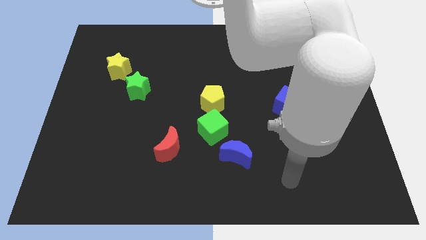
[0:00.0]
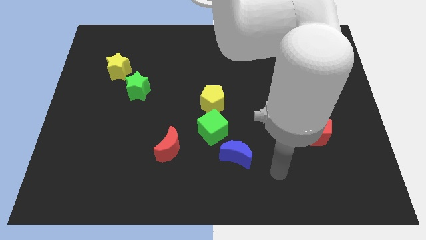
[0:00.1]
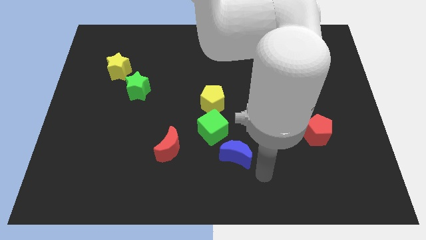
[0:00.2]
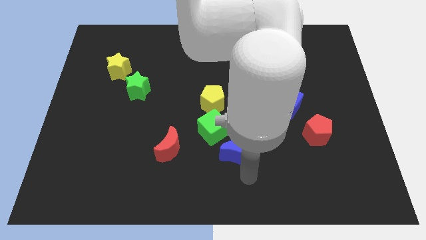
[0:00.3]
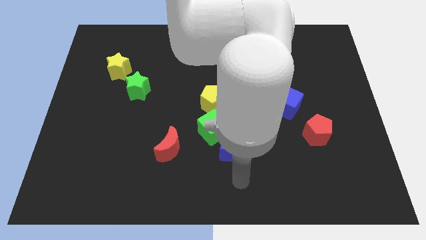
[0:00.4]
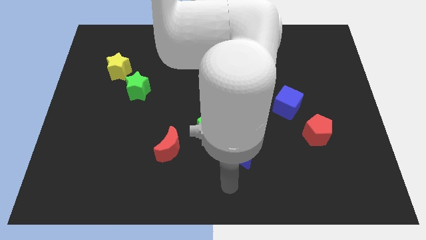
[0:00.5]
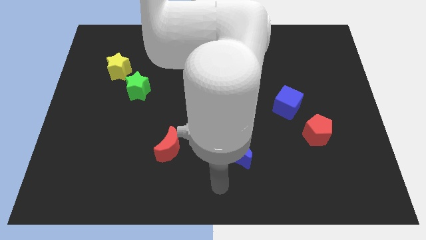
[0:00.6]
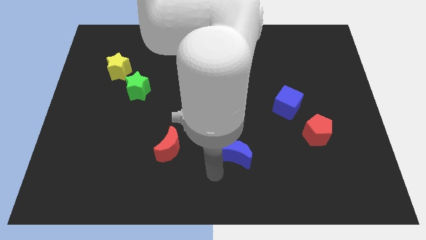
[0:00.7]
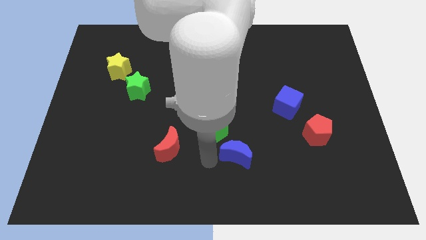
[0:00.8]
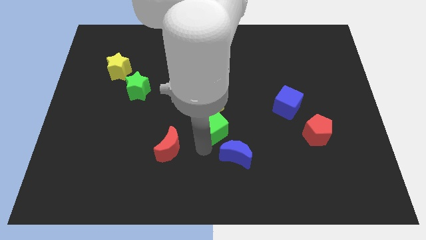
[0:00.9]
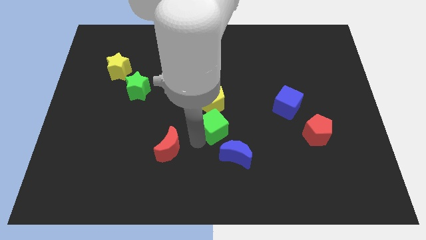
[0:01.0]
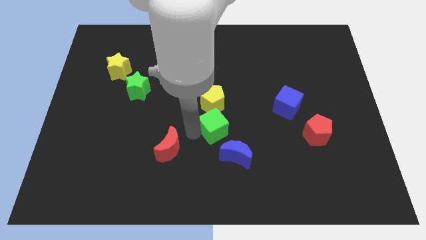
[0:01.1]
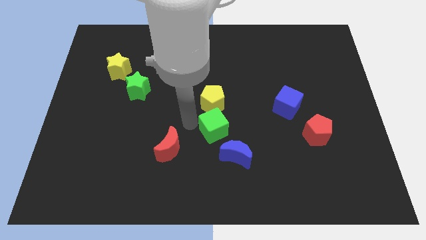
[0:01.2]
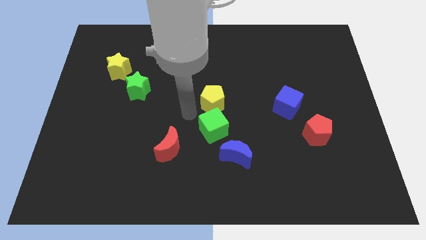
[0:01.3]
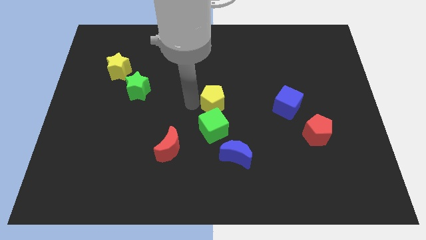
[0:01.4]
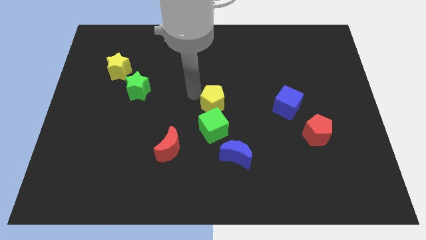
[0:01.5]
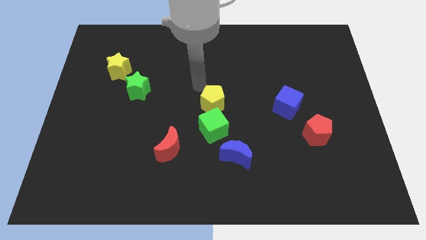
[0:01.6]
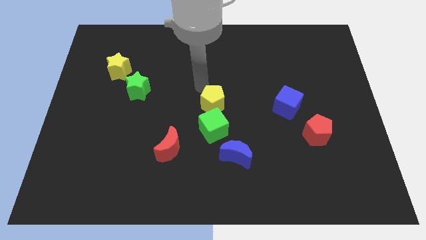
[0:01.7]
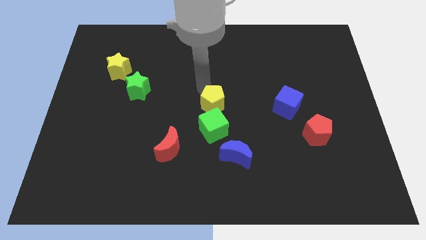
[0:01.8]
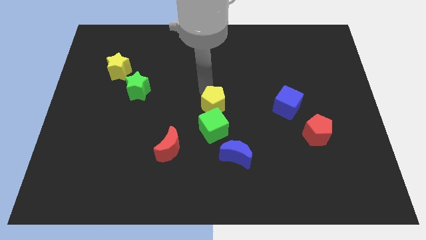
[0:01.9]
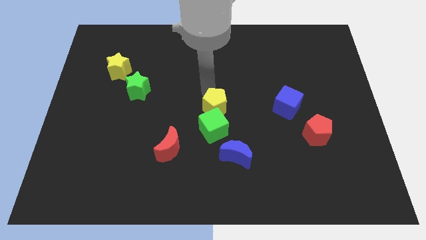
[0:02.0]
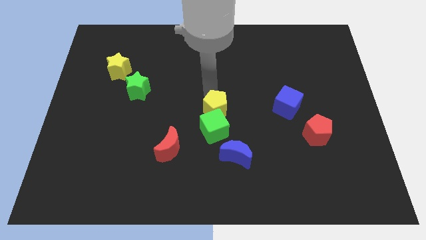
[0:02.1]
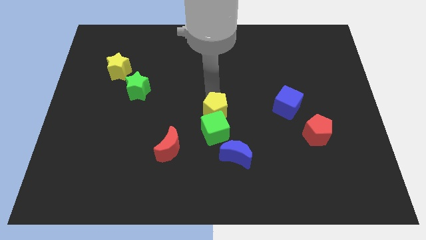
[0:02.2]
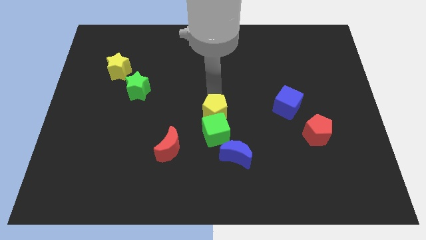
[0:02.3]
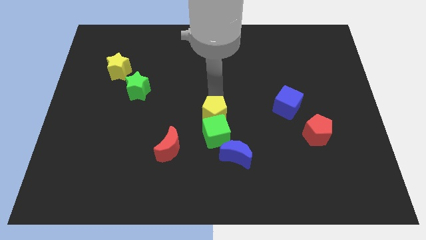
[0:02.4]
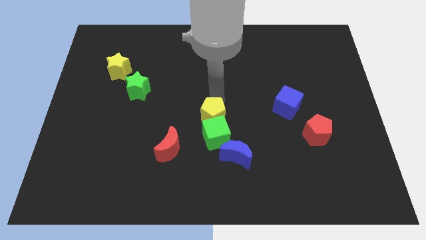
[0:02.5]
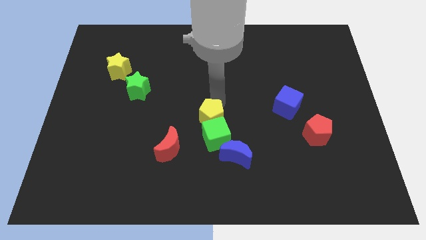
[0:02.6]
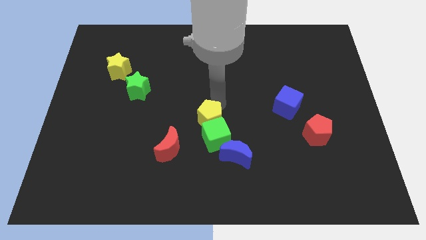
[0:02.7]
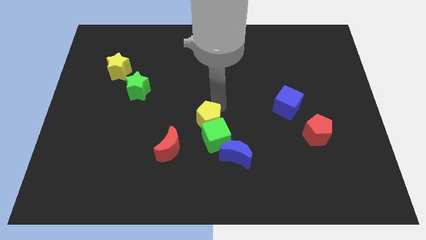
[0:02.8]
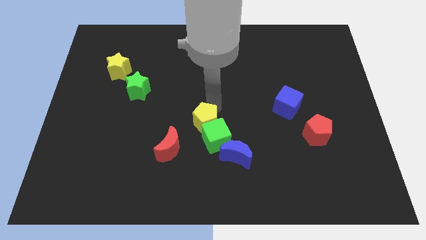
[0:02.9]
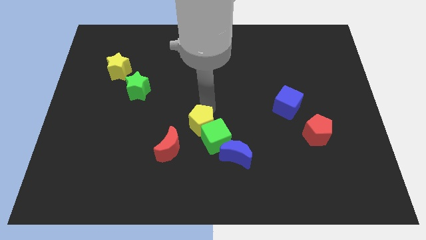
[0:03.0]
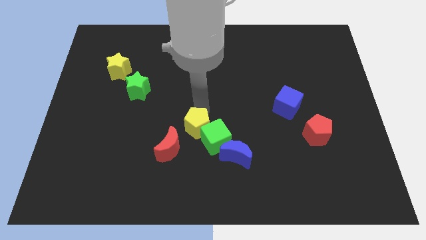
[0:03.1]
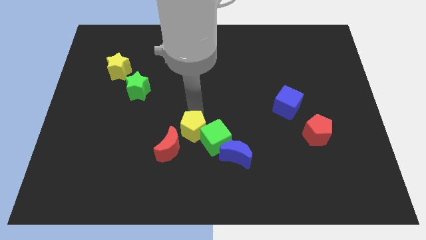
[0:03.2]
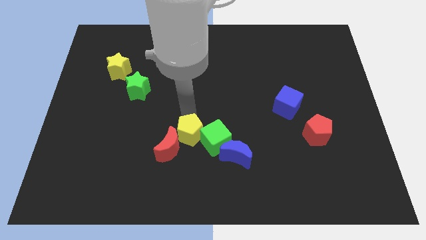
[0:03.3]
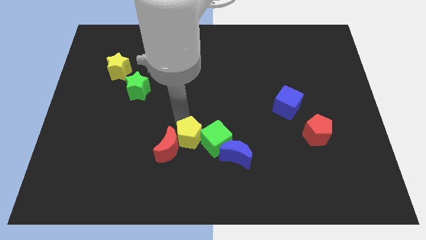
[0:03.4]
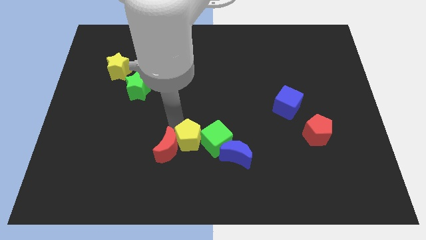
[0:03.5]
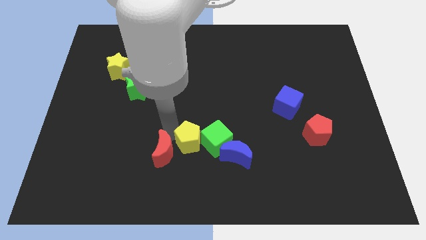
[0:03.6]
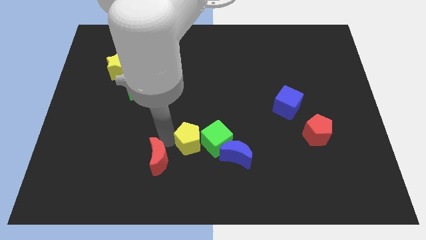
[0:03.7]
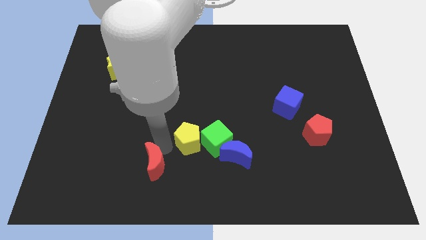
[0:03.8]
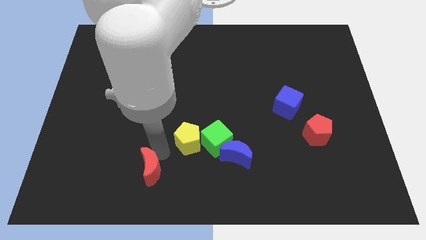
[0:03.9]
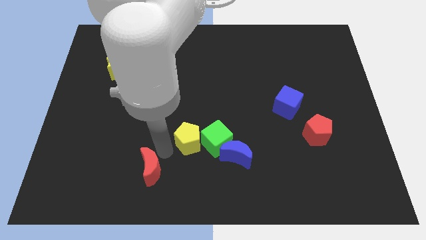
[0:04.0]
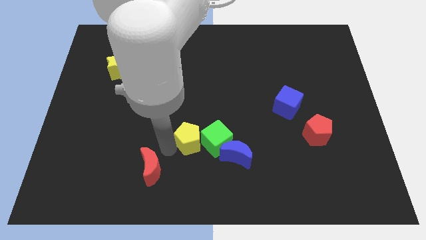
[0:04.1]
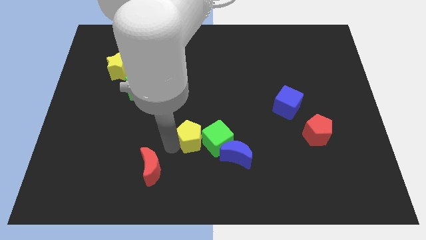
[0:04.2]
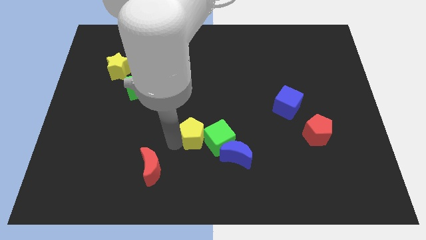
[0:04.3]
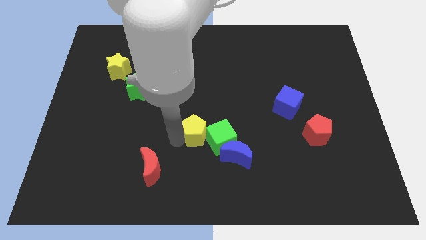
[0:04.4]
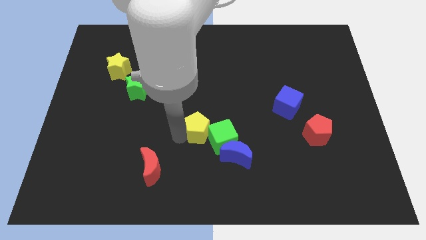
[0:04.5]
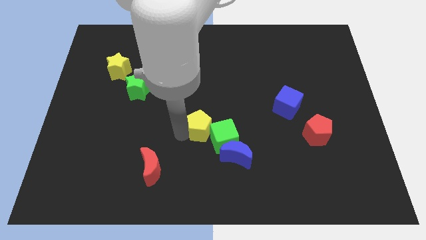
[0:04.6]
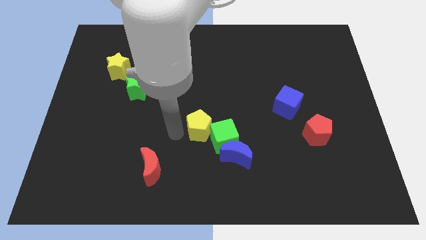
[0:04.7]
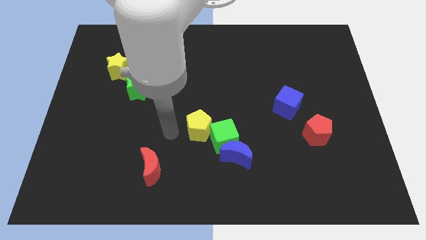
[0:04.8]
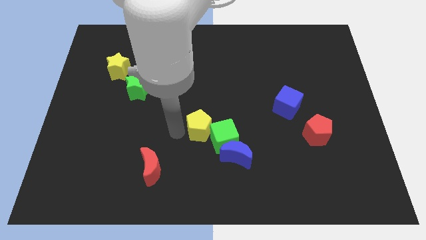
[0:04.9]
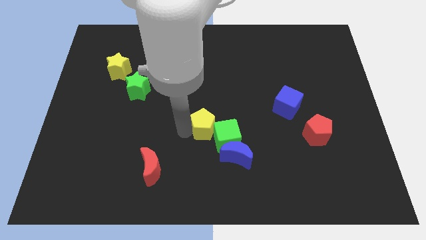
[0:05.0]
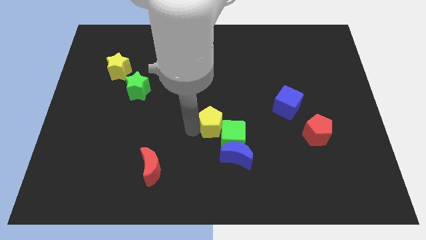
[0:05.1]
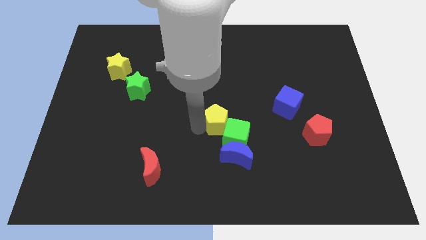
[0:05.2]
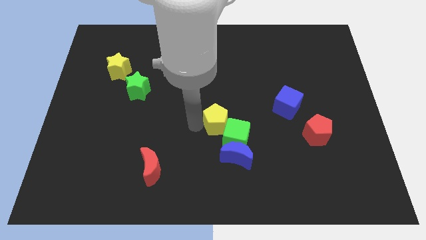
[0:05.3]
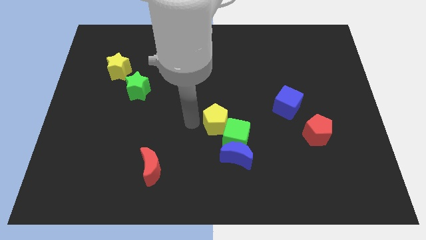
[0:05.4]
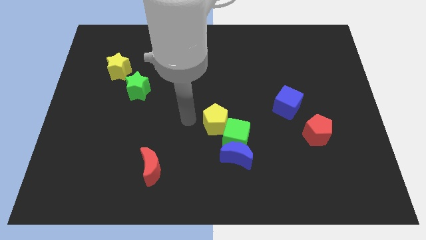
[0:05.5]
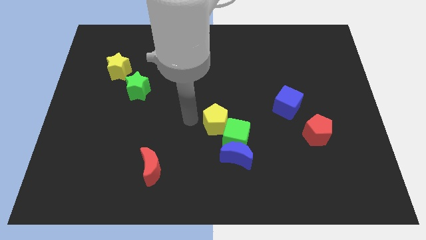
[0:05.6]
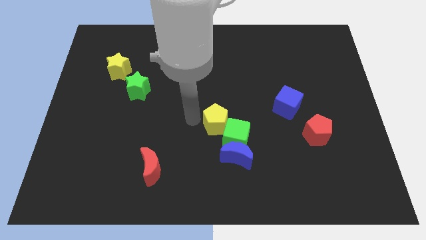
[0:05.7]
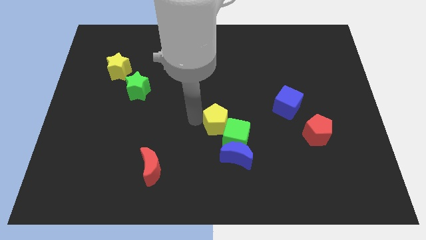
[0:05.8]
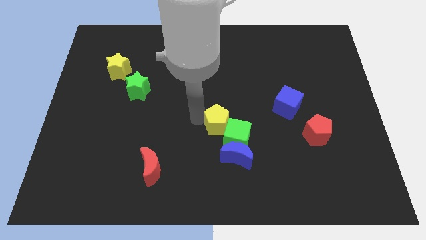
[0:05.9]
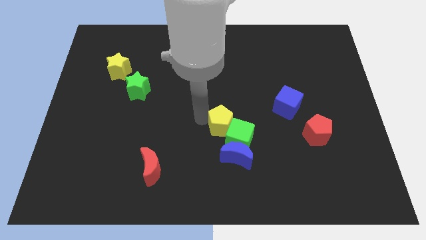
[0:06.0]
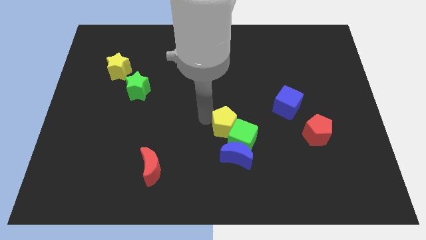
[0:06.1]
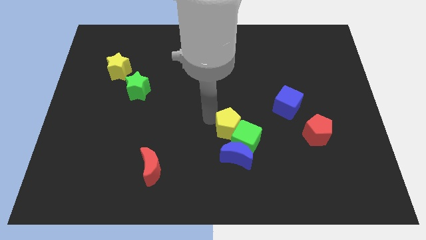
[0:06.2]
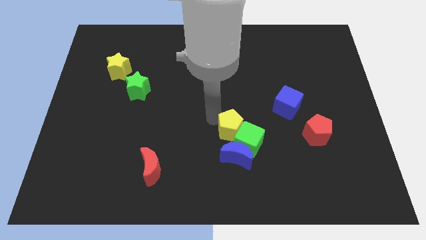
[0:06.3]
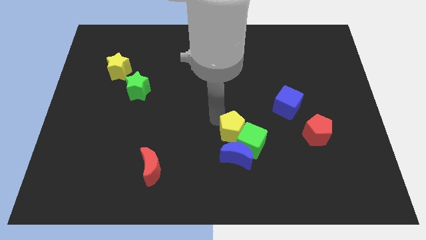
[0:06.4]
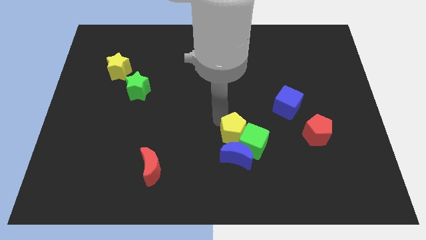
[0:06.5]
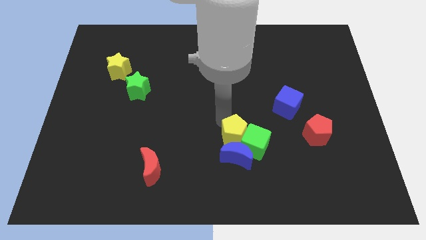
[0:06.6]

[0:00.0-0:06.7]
move the yellow pentagon to the top right of the blue moon

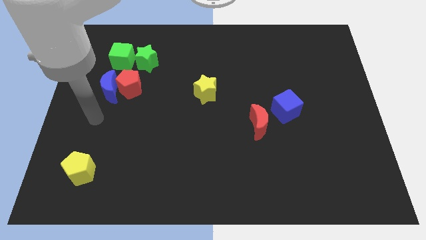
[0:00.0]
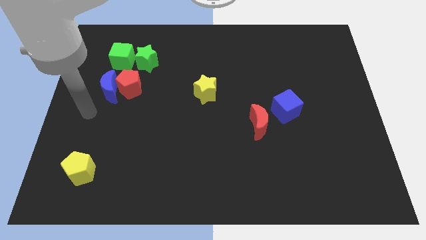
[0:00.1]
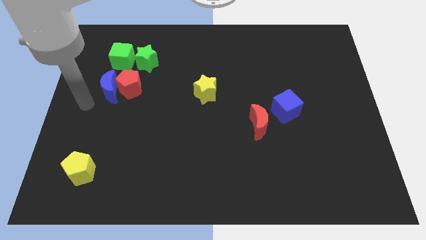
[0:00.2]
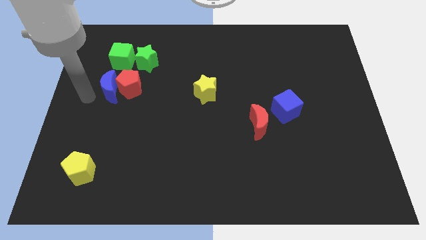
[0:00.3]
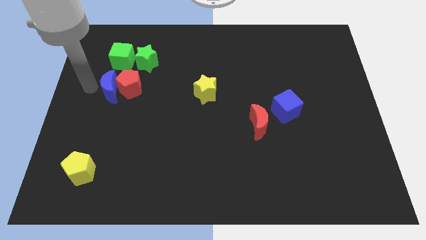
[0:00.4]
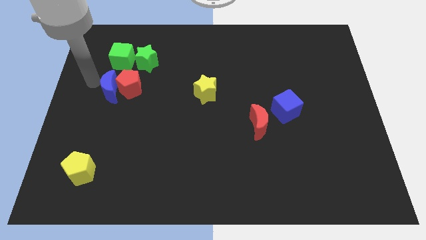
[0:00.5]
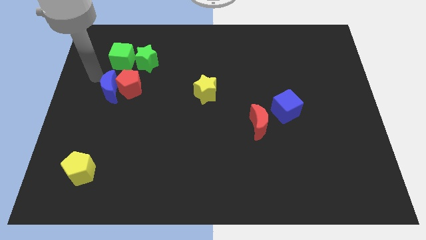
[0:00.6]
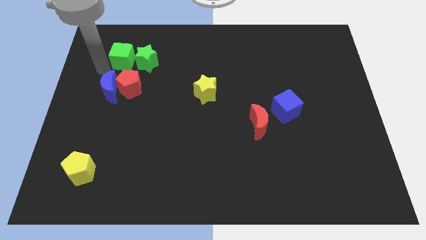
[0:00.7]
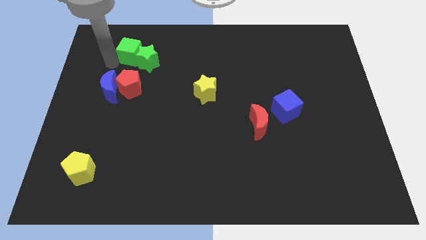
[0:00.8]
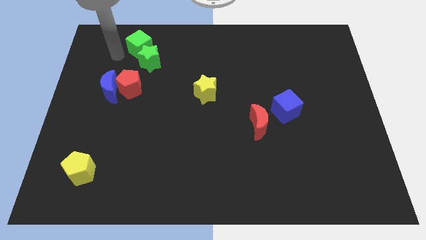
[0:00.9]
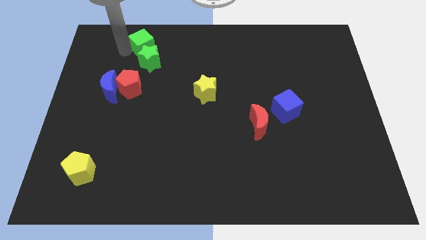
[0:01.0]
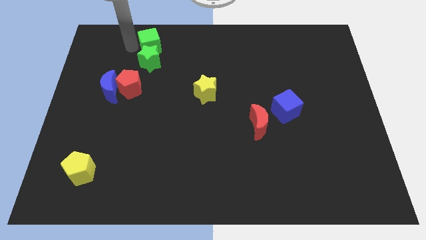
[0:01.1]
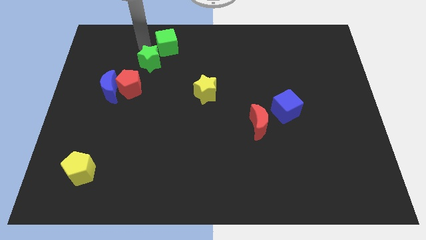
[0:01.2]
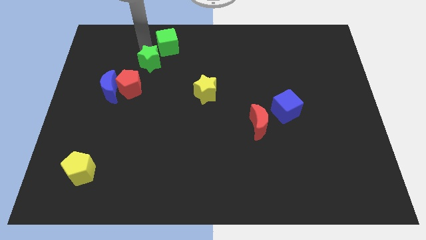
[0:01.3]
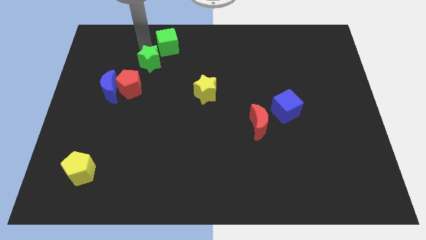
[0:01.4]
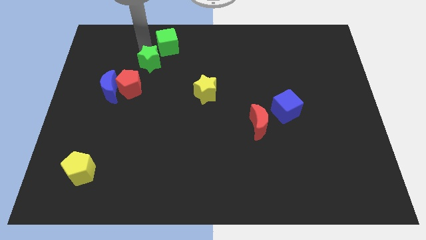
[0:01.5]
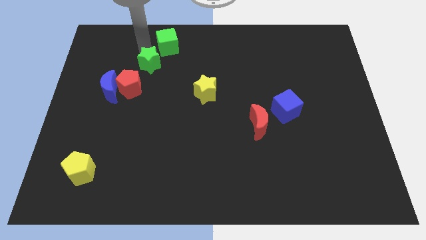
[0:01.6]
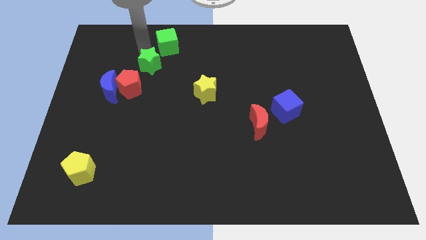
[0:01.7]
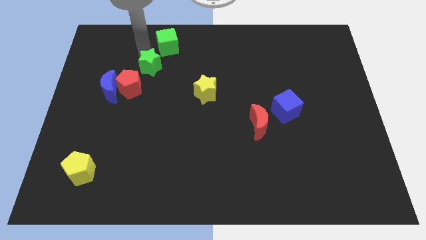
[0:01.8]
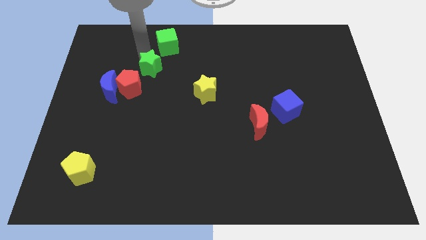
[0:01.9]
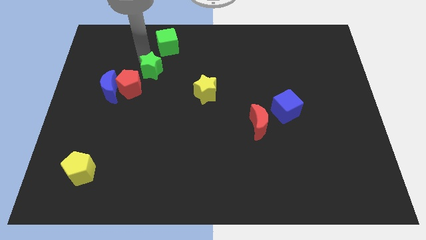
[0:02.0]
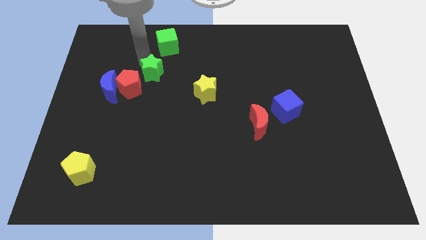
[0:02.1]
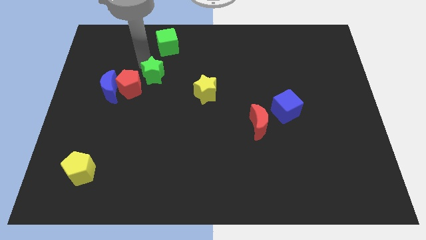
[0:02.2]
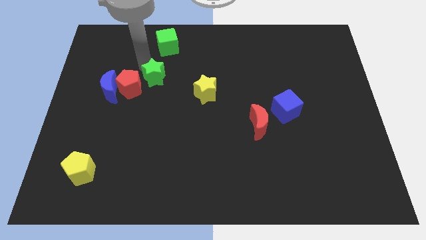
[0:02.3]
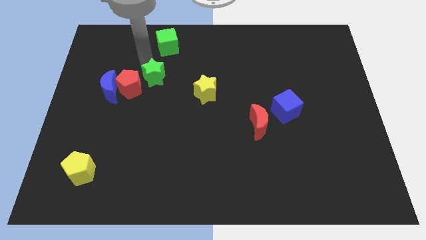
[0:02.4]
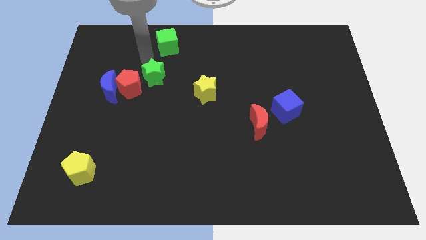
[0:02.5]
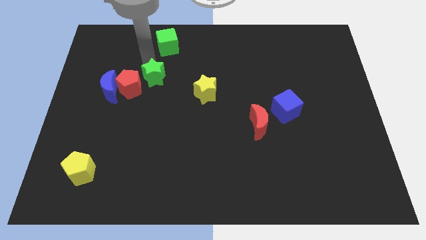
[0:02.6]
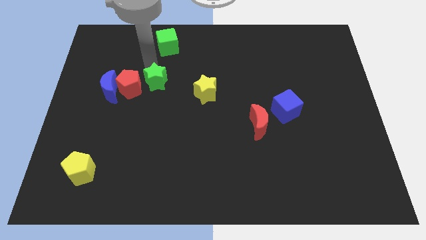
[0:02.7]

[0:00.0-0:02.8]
move the green star to the left of the yellow star
